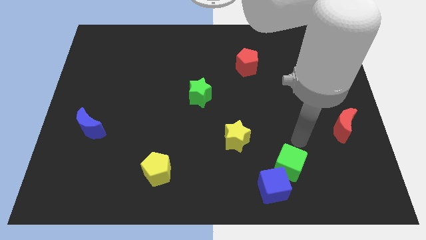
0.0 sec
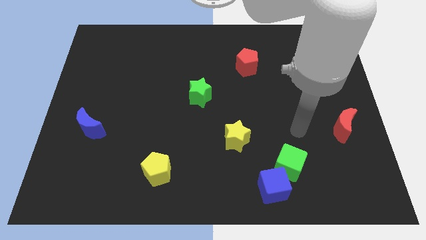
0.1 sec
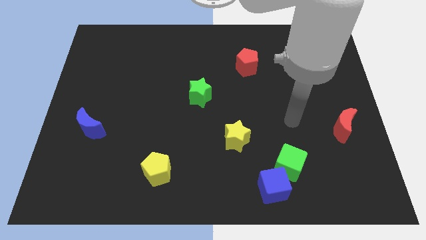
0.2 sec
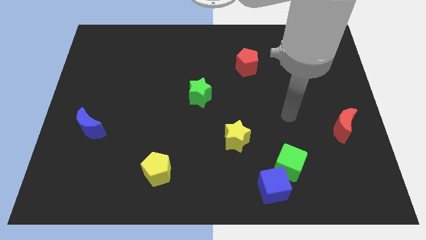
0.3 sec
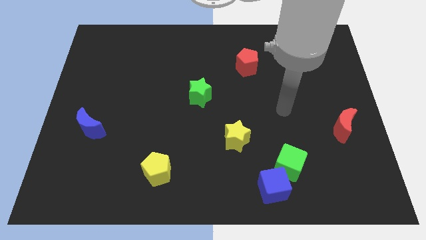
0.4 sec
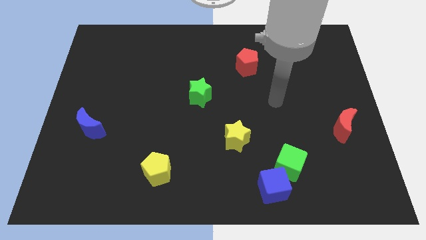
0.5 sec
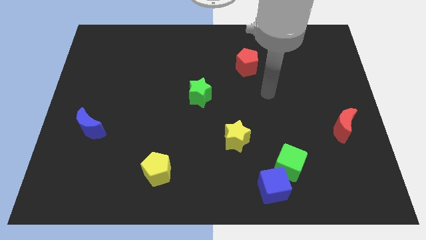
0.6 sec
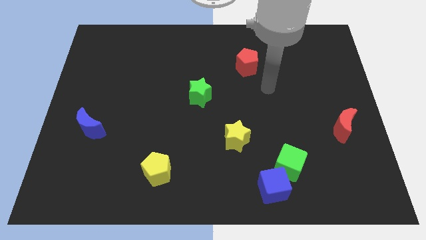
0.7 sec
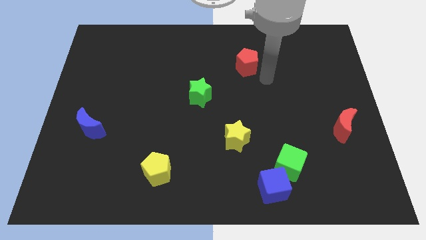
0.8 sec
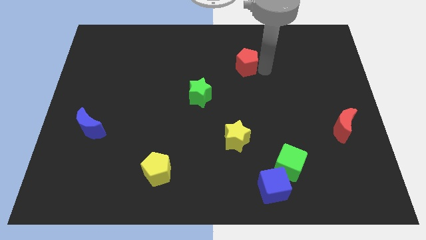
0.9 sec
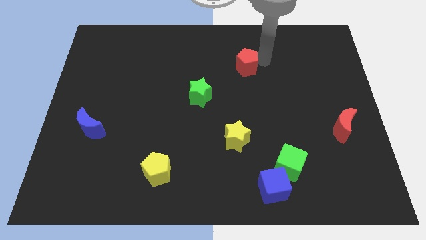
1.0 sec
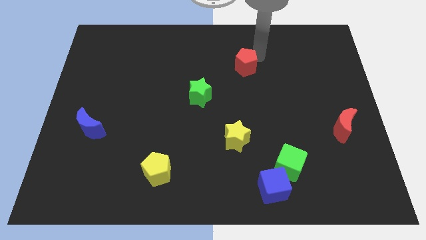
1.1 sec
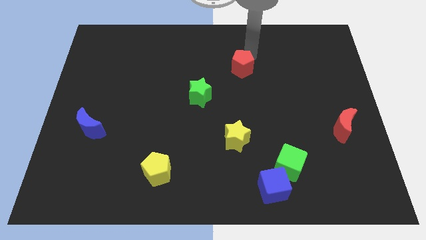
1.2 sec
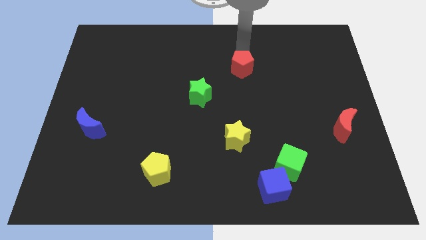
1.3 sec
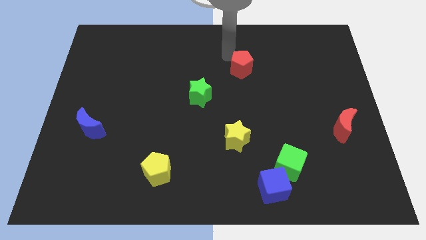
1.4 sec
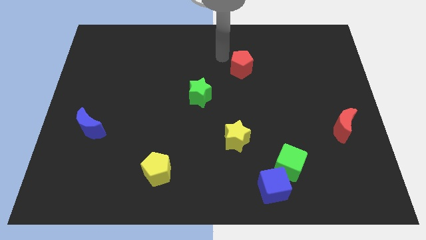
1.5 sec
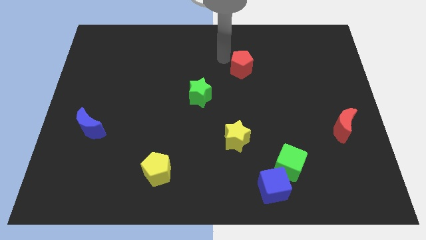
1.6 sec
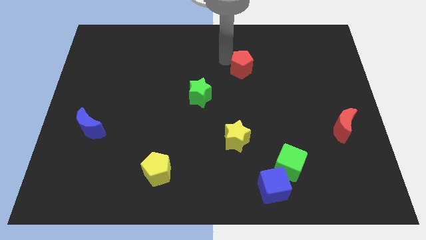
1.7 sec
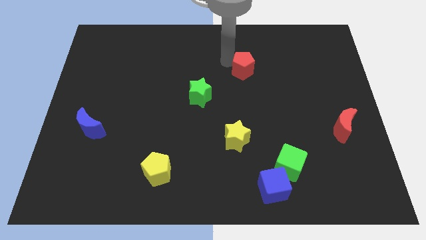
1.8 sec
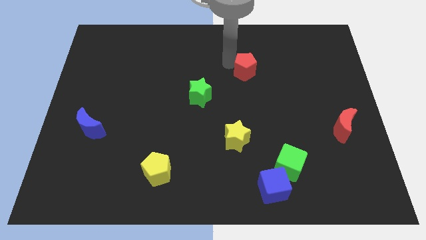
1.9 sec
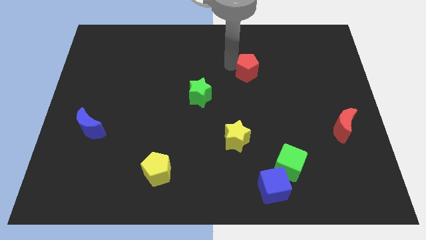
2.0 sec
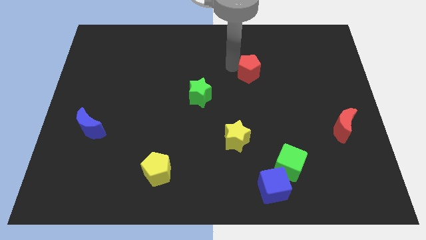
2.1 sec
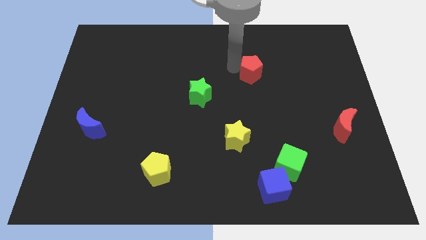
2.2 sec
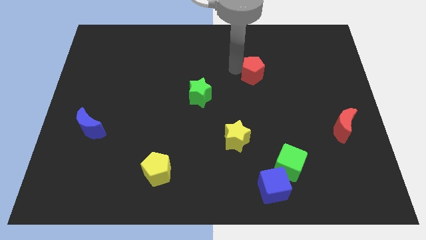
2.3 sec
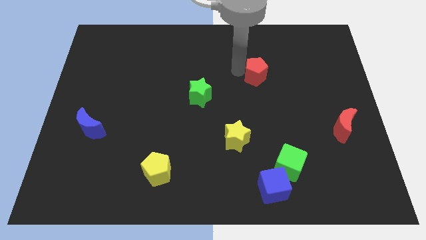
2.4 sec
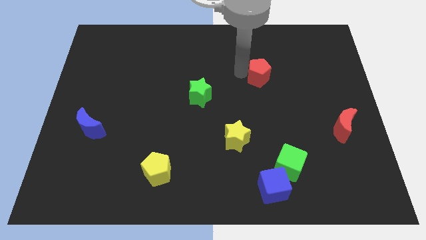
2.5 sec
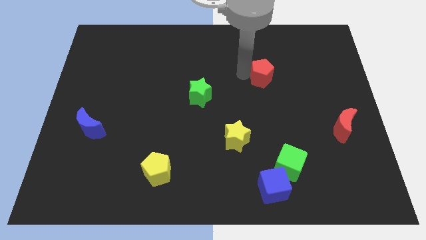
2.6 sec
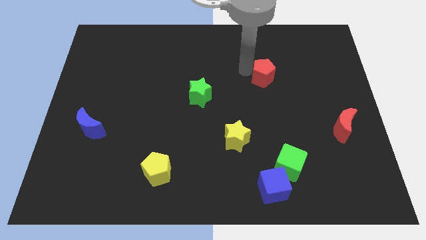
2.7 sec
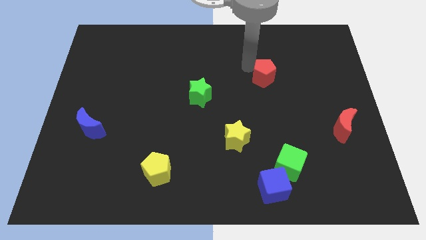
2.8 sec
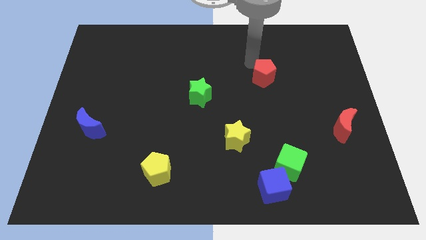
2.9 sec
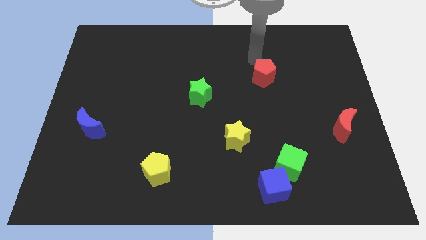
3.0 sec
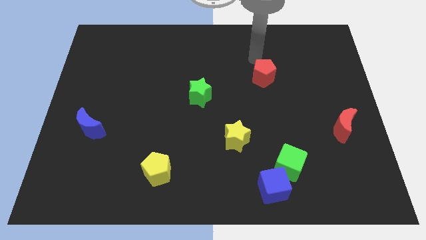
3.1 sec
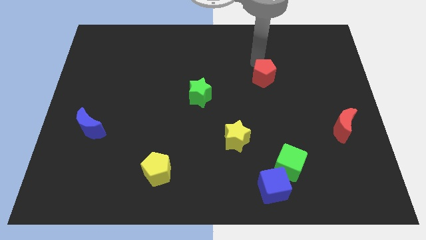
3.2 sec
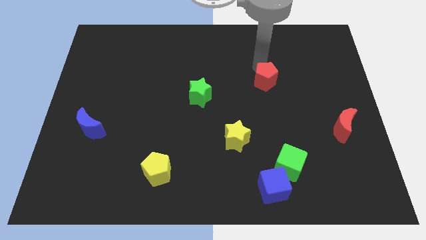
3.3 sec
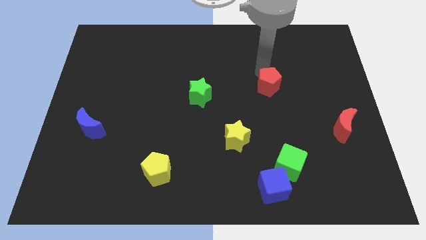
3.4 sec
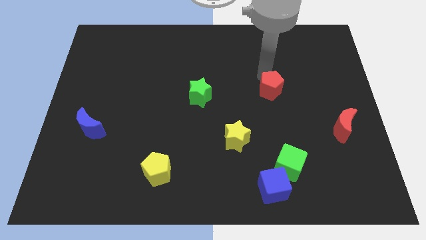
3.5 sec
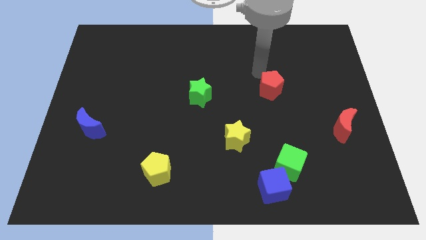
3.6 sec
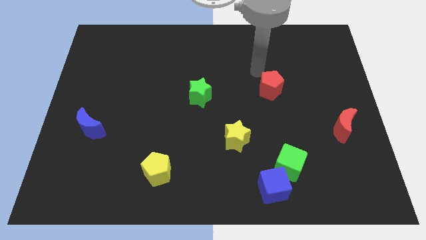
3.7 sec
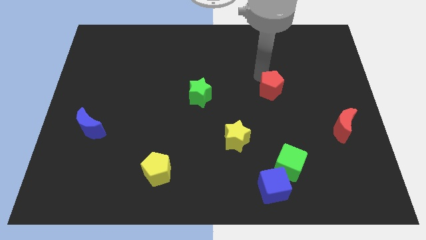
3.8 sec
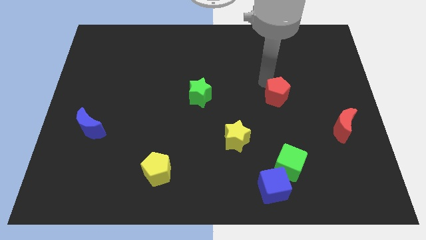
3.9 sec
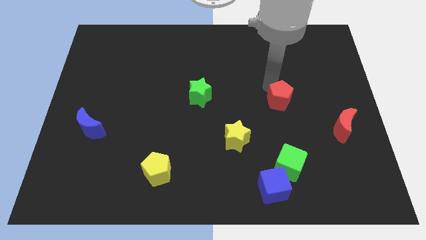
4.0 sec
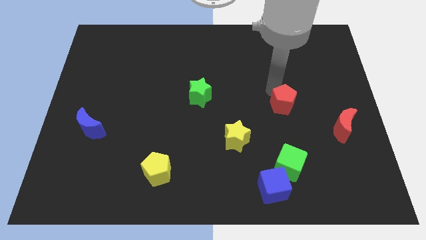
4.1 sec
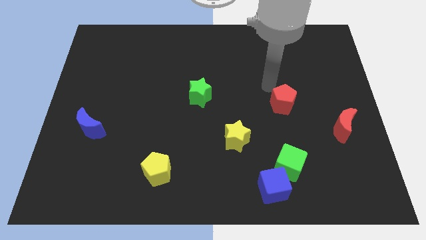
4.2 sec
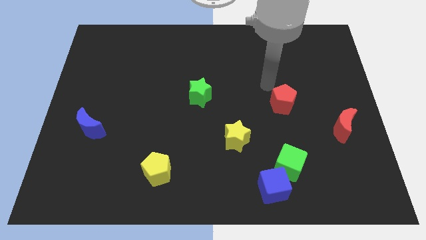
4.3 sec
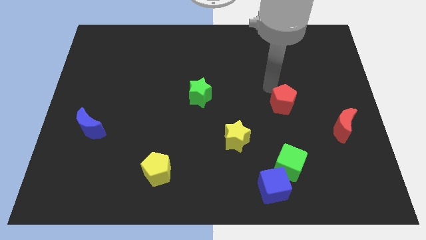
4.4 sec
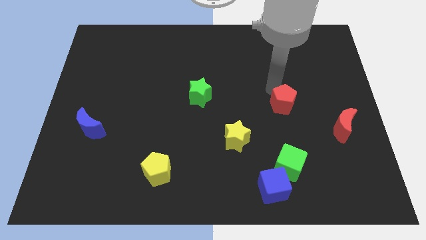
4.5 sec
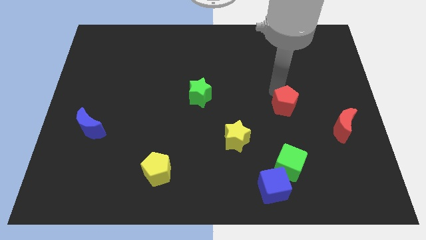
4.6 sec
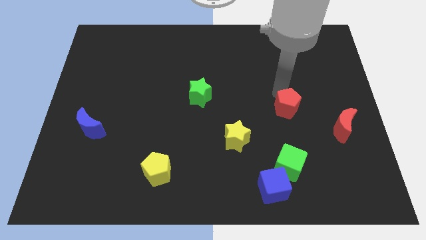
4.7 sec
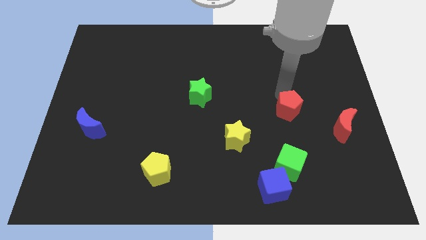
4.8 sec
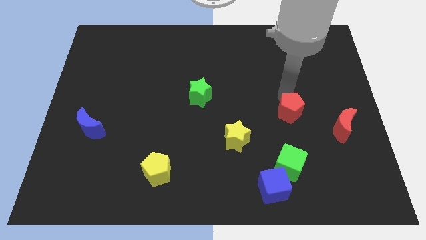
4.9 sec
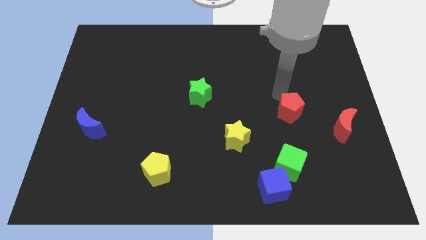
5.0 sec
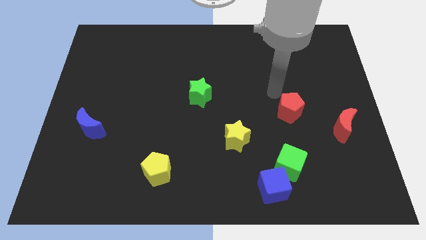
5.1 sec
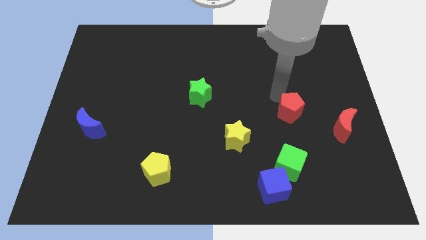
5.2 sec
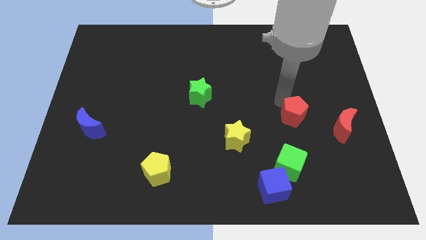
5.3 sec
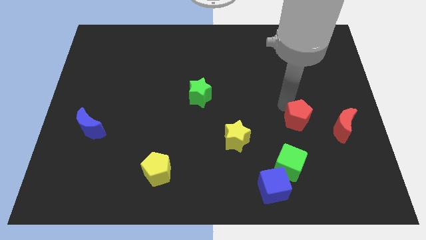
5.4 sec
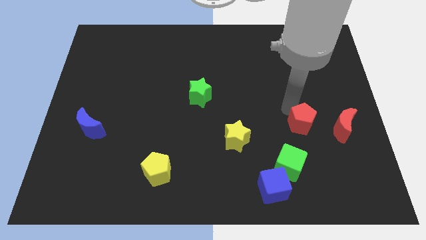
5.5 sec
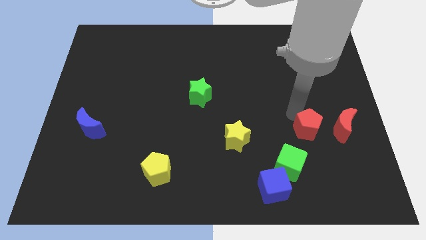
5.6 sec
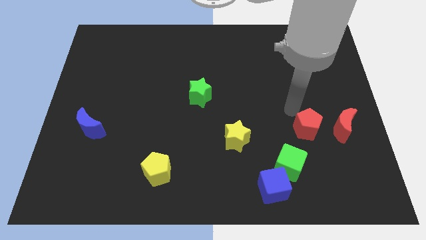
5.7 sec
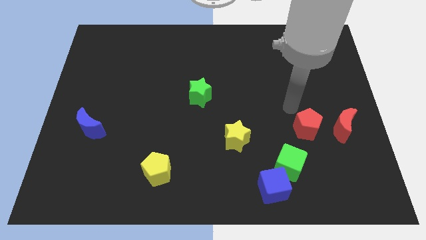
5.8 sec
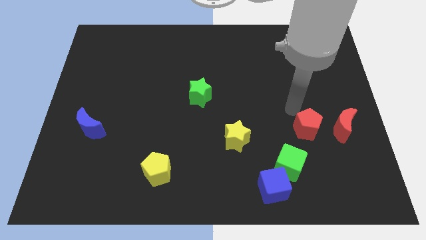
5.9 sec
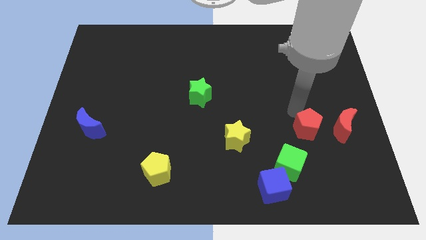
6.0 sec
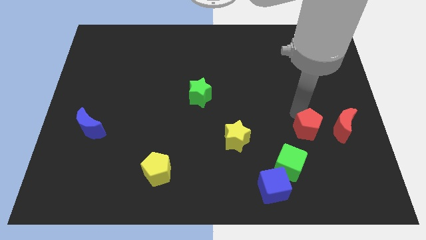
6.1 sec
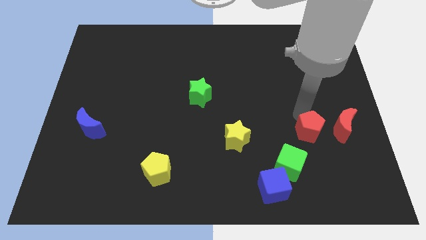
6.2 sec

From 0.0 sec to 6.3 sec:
push the red pentagon diagonally down and to the left of the red moon

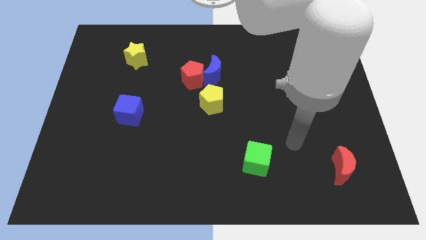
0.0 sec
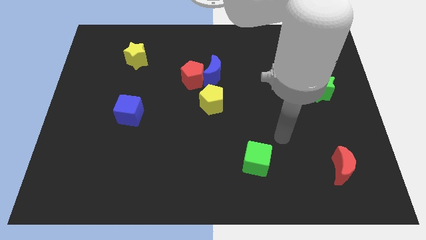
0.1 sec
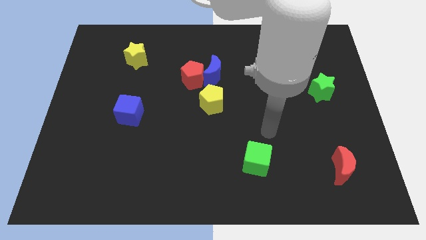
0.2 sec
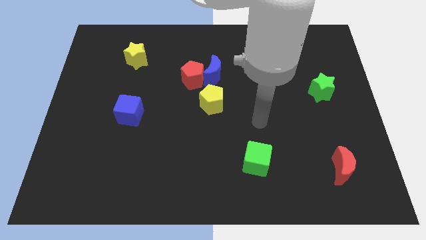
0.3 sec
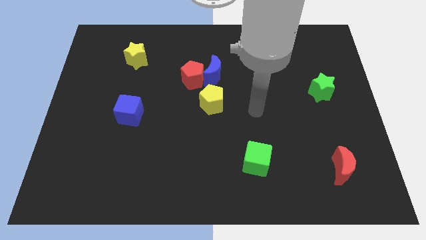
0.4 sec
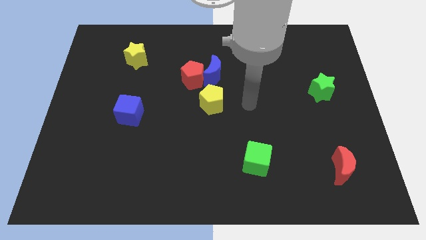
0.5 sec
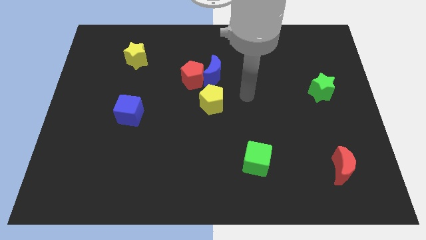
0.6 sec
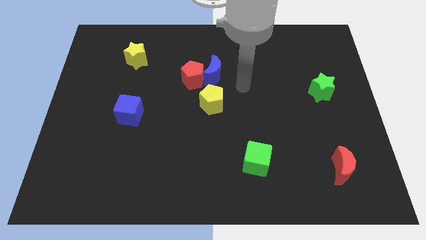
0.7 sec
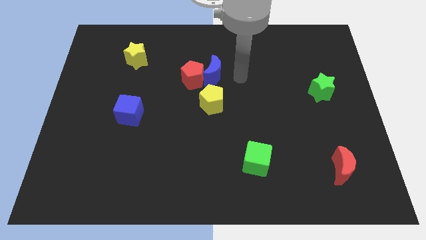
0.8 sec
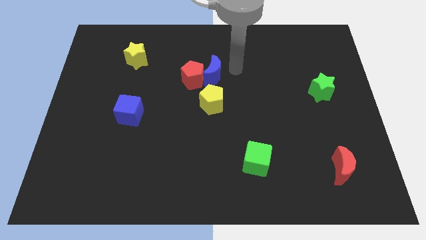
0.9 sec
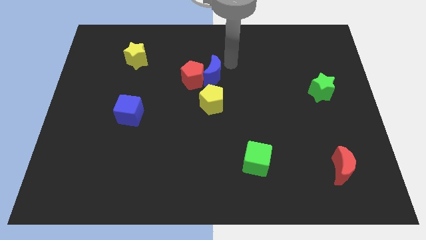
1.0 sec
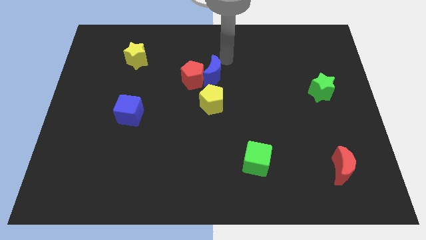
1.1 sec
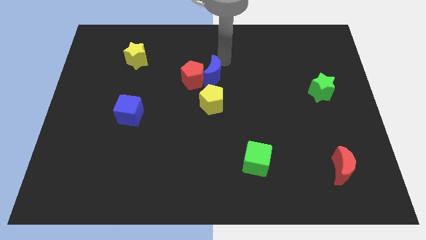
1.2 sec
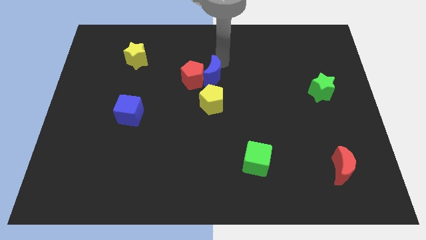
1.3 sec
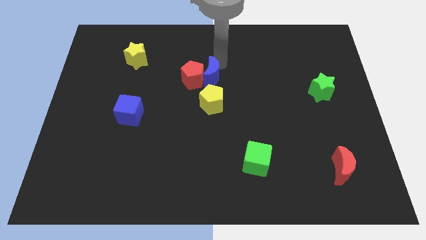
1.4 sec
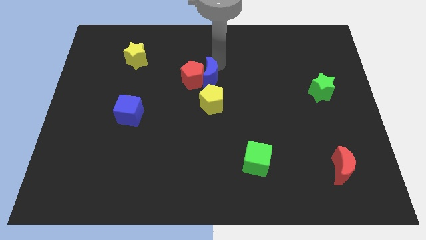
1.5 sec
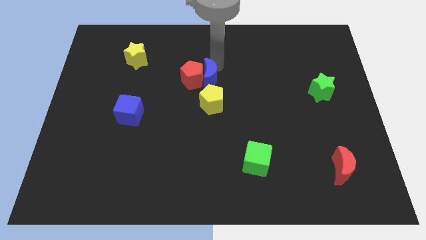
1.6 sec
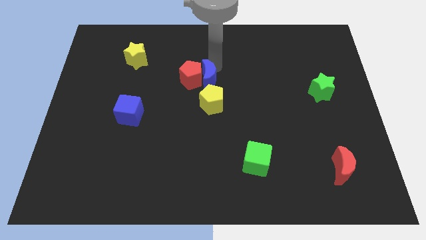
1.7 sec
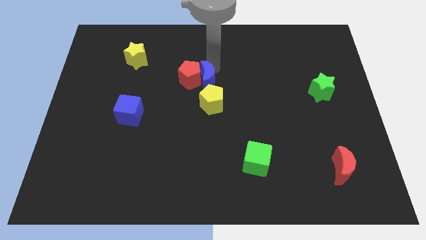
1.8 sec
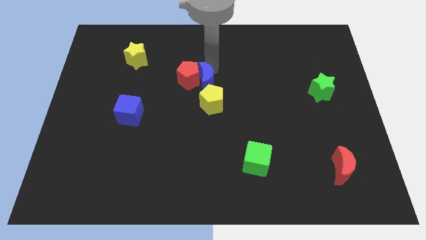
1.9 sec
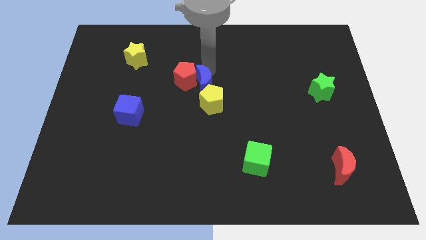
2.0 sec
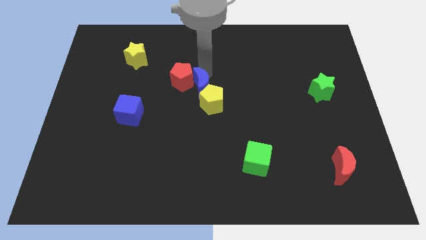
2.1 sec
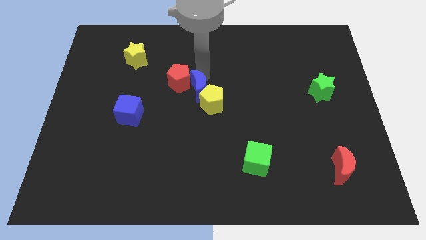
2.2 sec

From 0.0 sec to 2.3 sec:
slide the blue moon to the left side of the yellow pentagon
